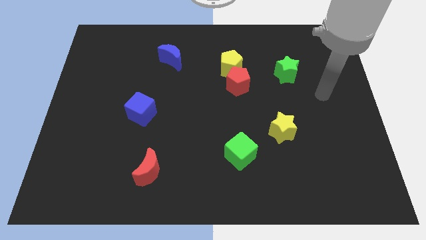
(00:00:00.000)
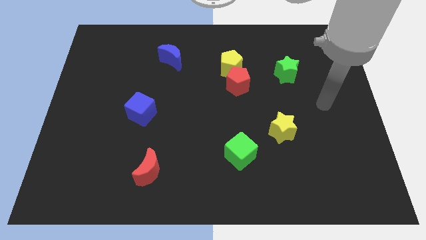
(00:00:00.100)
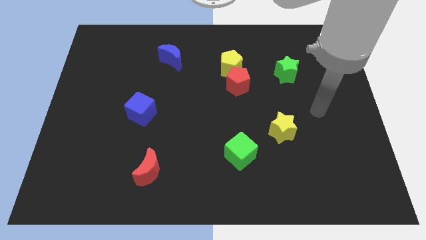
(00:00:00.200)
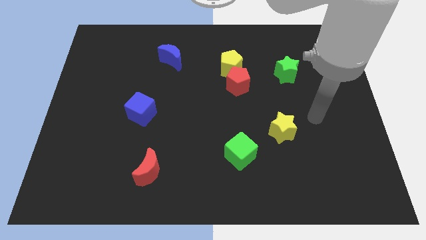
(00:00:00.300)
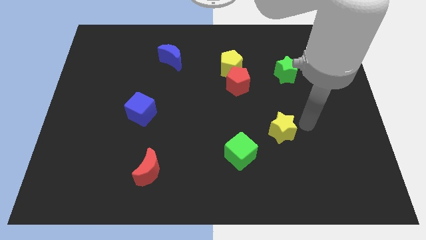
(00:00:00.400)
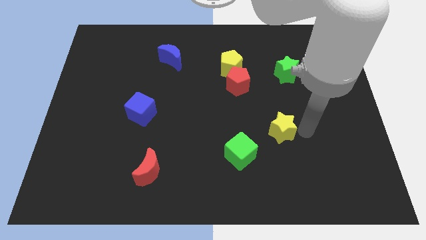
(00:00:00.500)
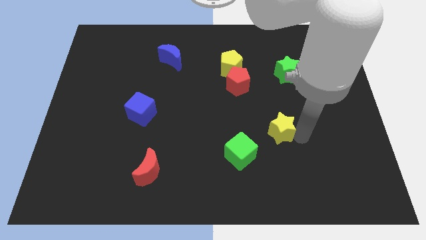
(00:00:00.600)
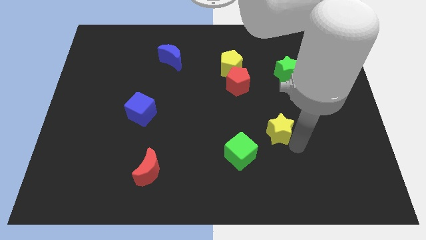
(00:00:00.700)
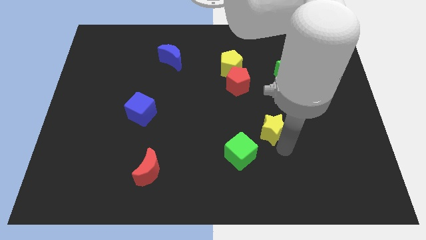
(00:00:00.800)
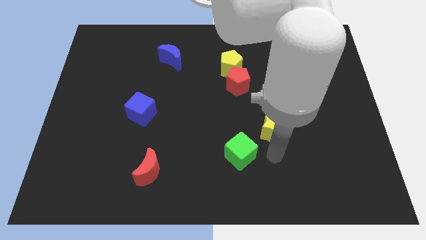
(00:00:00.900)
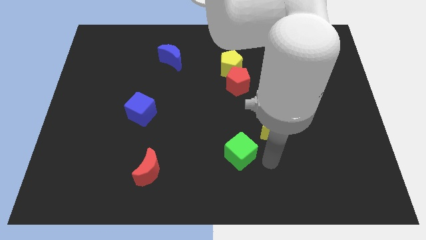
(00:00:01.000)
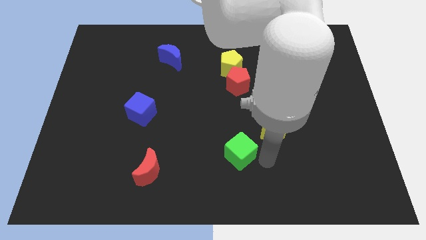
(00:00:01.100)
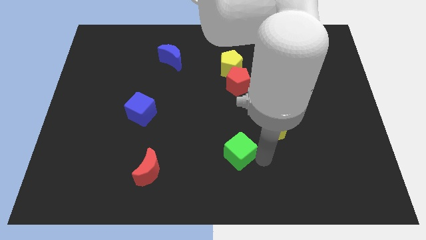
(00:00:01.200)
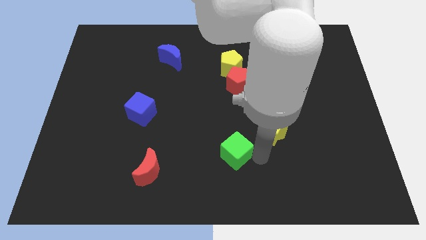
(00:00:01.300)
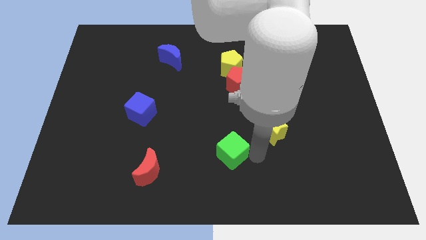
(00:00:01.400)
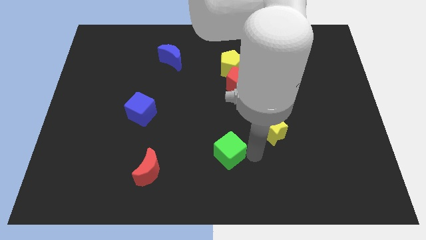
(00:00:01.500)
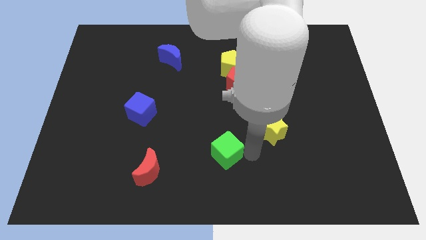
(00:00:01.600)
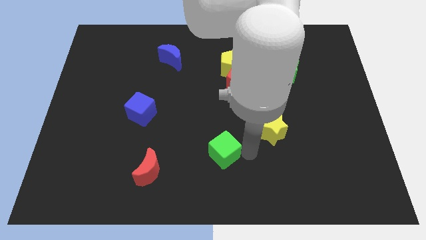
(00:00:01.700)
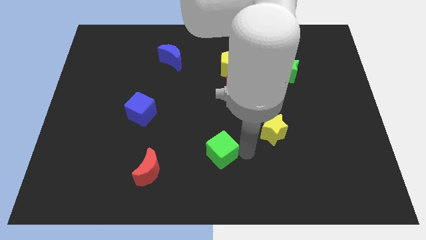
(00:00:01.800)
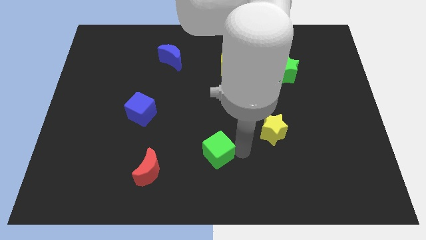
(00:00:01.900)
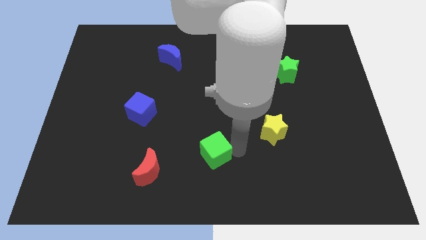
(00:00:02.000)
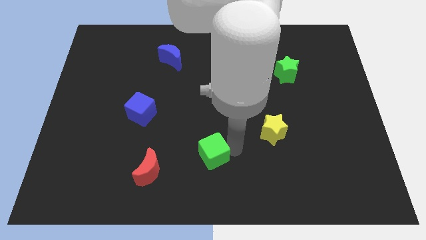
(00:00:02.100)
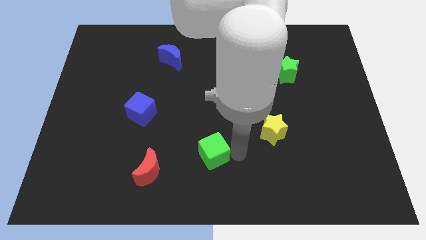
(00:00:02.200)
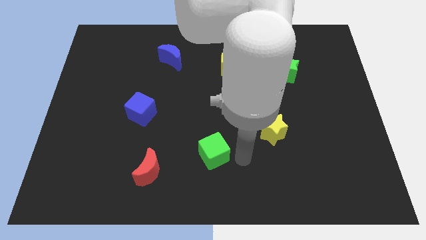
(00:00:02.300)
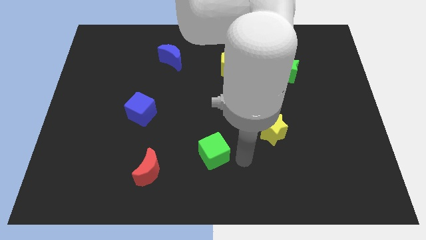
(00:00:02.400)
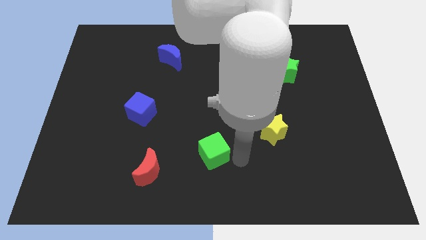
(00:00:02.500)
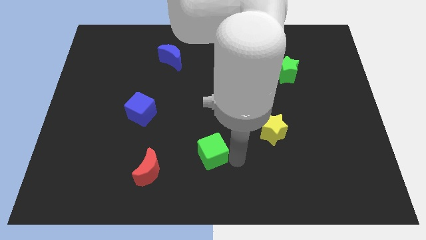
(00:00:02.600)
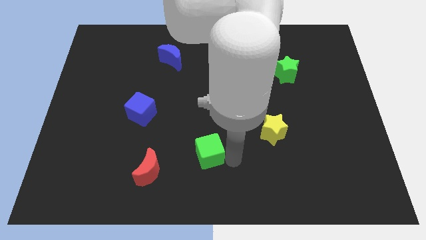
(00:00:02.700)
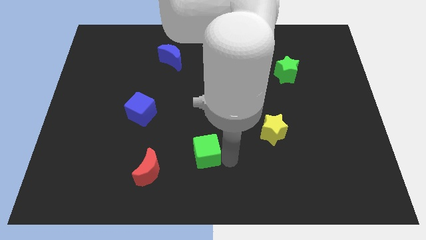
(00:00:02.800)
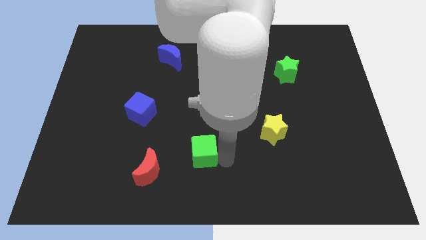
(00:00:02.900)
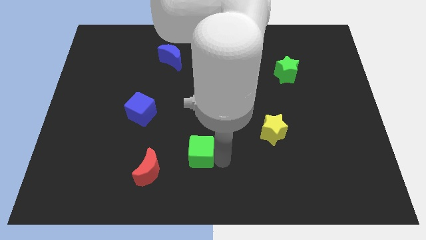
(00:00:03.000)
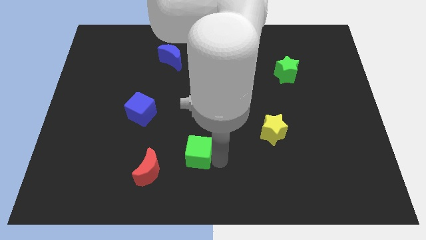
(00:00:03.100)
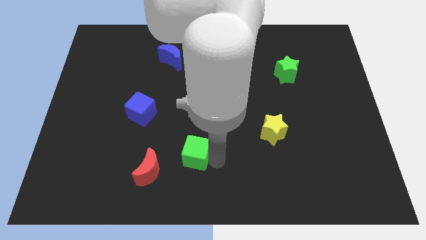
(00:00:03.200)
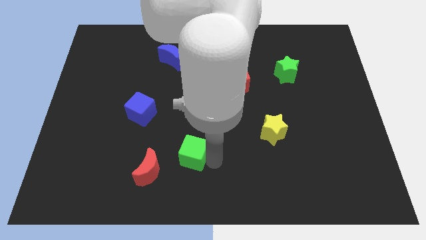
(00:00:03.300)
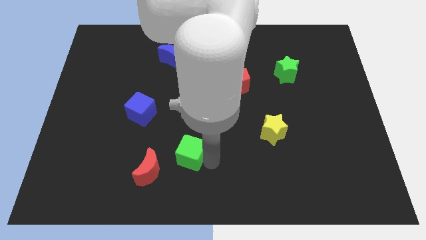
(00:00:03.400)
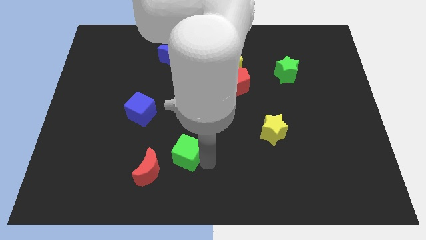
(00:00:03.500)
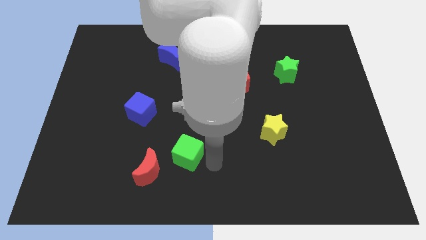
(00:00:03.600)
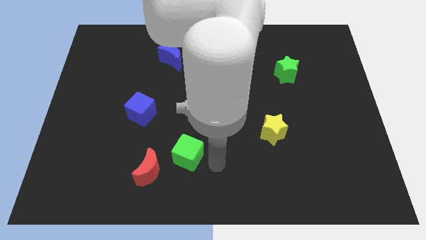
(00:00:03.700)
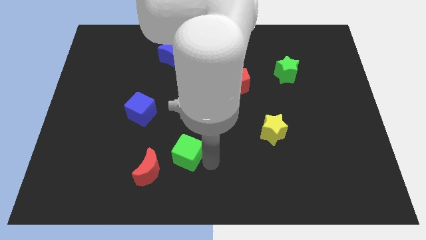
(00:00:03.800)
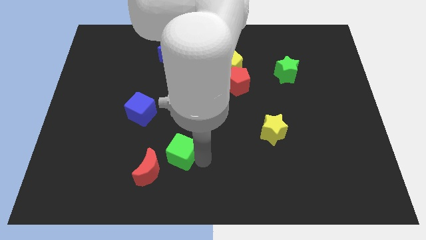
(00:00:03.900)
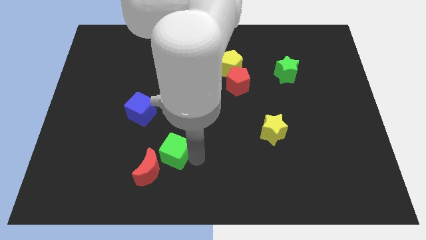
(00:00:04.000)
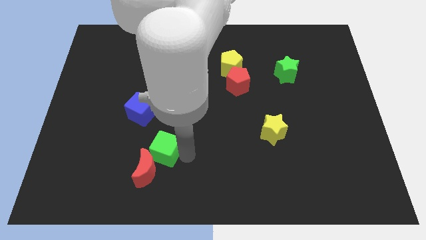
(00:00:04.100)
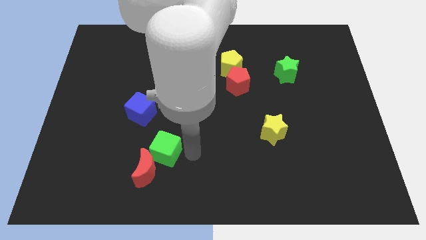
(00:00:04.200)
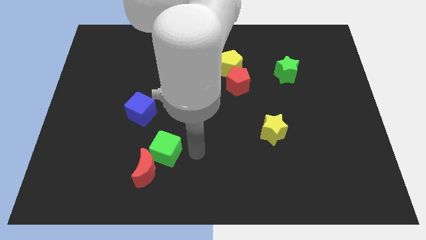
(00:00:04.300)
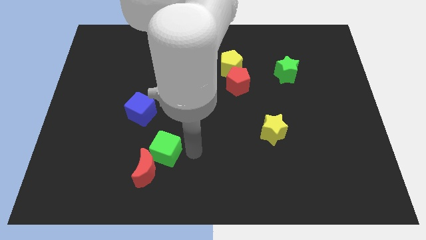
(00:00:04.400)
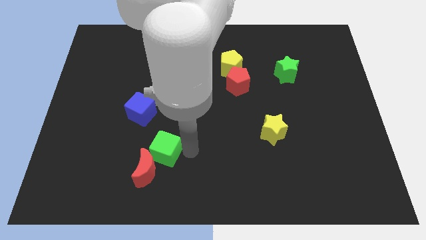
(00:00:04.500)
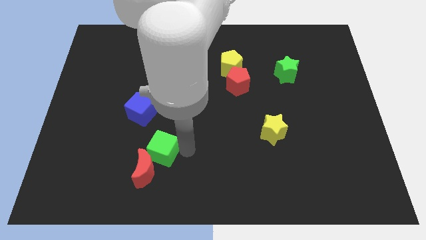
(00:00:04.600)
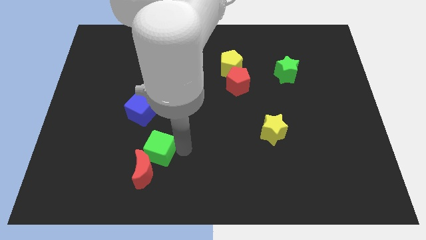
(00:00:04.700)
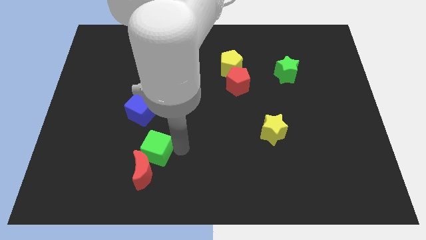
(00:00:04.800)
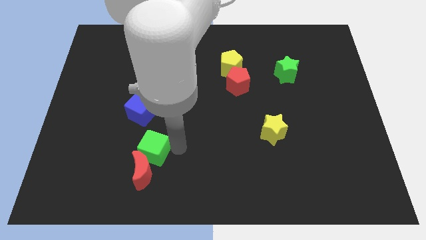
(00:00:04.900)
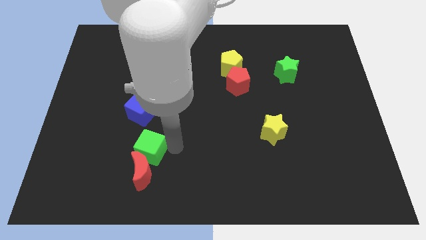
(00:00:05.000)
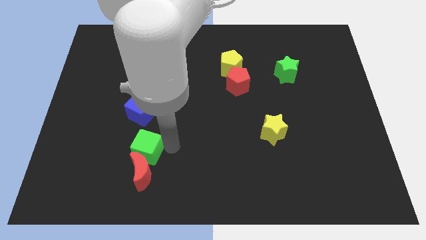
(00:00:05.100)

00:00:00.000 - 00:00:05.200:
push the green cube to the left

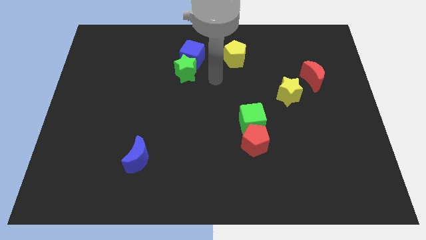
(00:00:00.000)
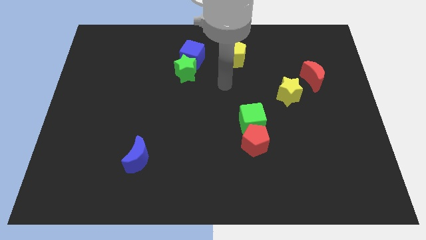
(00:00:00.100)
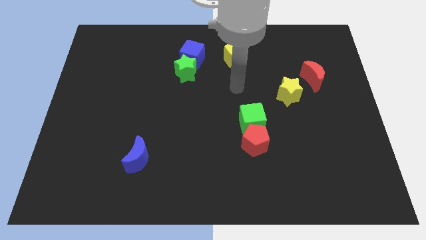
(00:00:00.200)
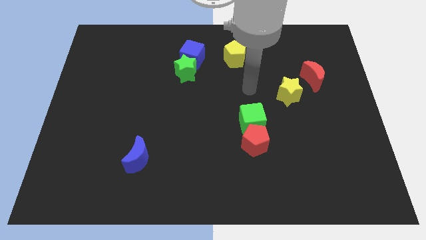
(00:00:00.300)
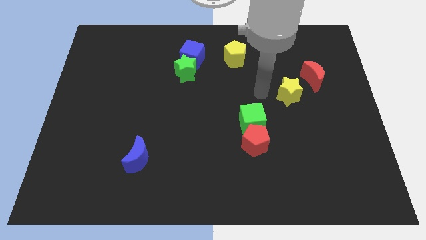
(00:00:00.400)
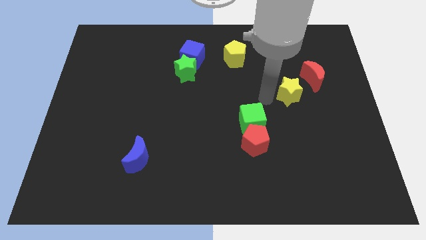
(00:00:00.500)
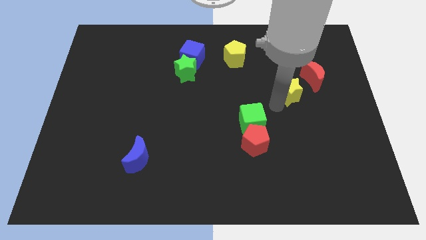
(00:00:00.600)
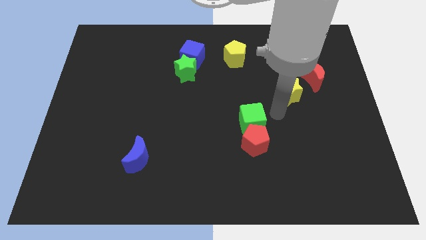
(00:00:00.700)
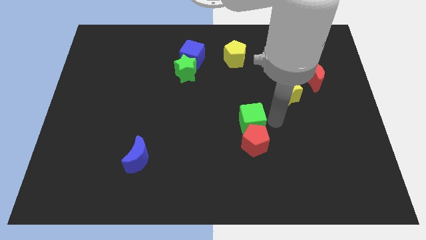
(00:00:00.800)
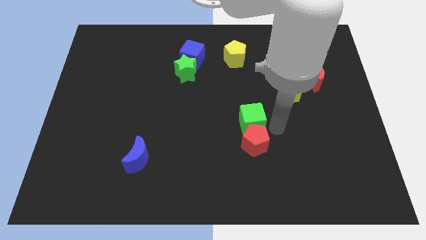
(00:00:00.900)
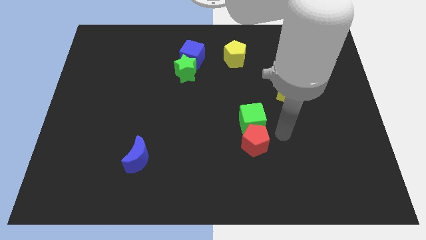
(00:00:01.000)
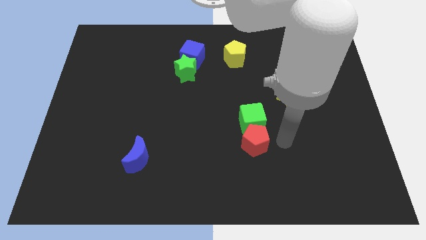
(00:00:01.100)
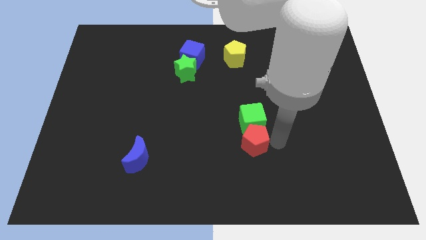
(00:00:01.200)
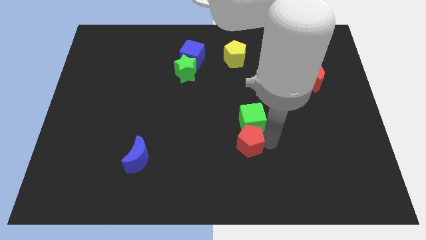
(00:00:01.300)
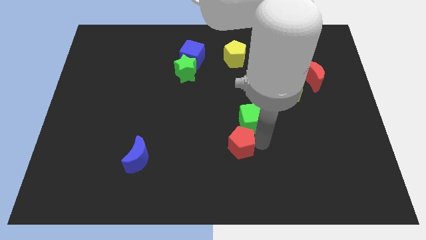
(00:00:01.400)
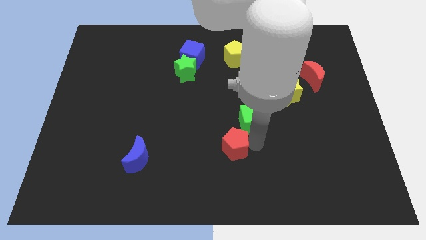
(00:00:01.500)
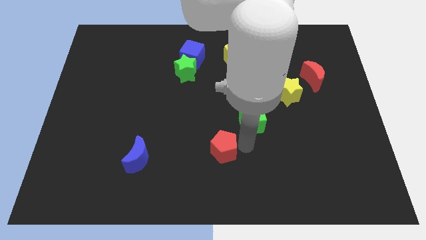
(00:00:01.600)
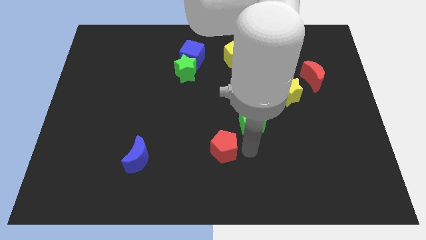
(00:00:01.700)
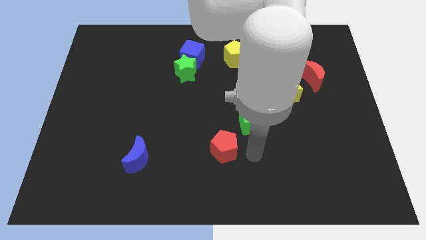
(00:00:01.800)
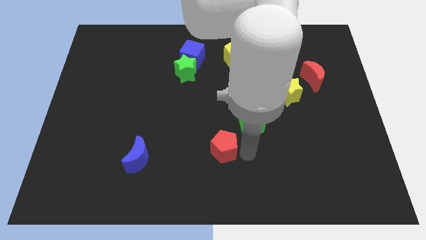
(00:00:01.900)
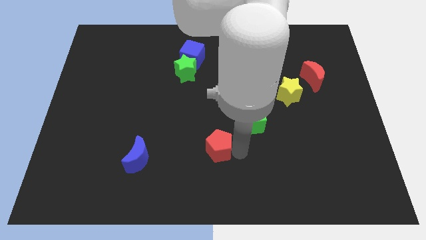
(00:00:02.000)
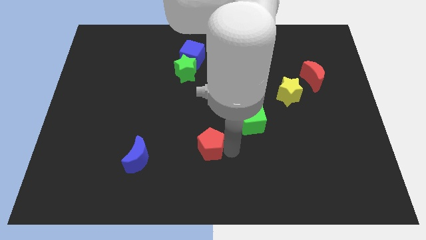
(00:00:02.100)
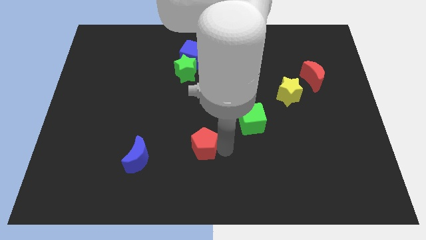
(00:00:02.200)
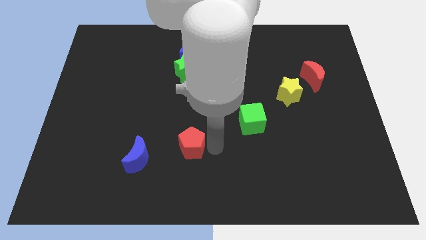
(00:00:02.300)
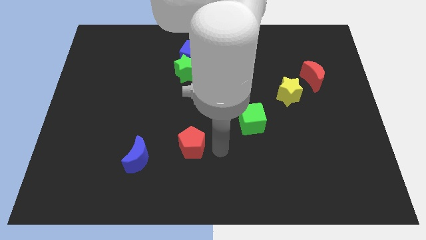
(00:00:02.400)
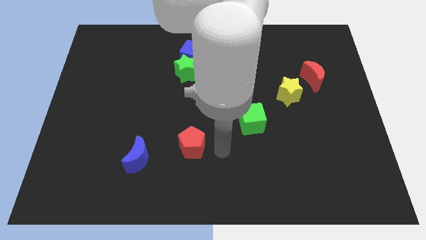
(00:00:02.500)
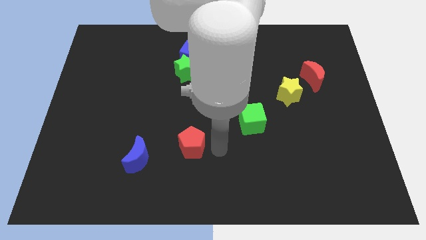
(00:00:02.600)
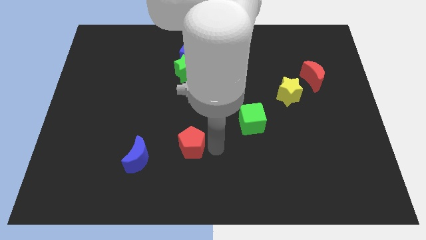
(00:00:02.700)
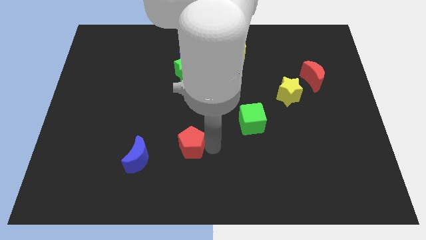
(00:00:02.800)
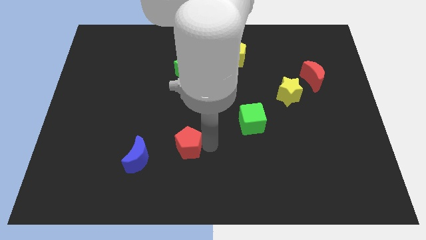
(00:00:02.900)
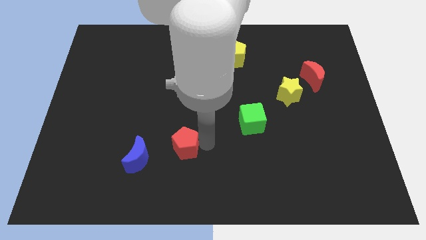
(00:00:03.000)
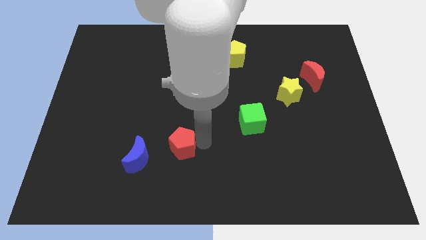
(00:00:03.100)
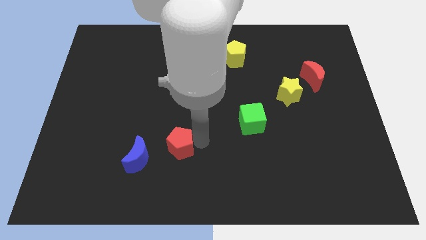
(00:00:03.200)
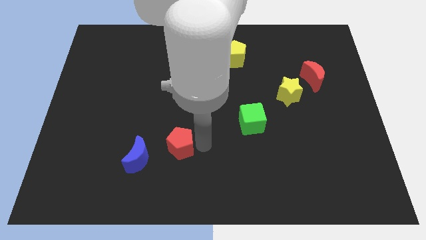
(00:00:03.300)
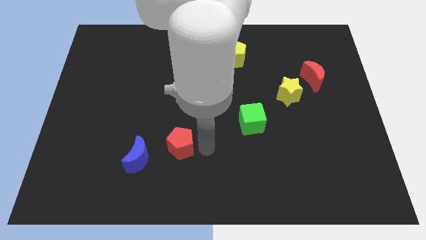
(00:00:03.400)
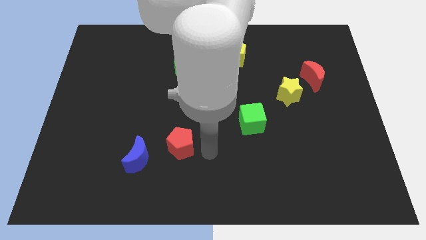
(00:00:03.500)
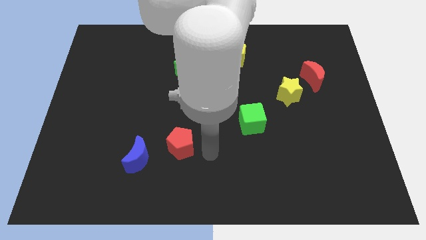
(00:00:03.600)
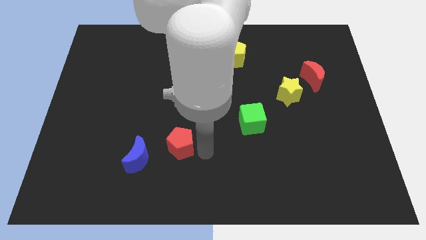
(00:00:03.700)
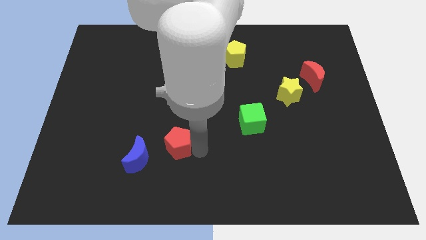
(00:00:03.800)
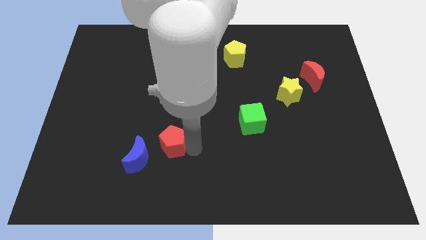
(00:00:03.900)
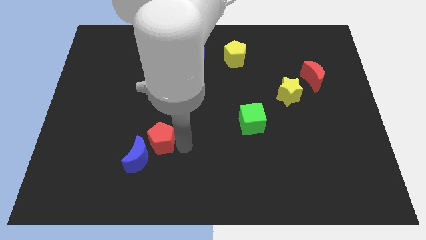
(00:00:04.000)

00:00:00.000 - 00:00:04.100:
move the red pentagon left
